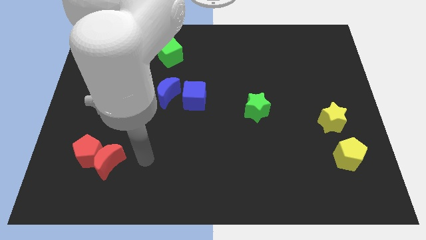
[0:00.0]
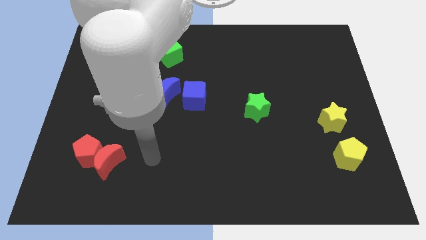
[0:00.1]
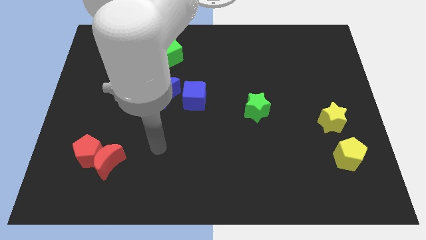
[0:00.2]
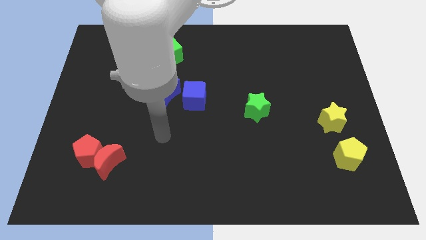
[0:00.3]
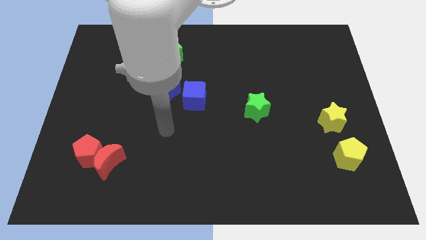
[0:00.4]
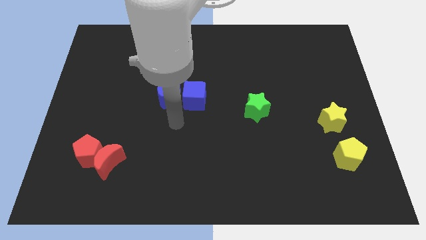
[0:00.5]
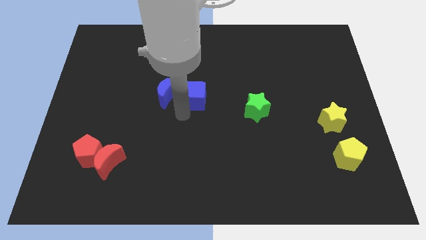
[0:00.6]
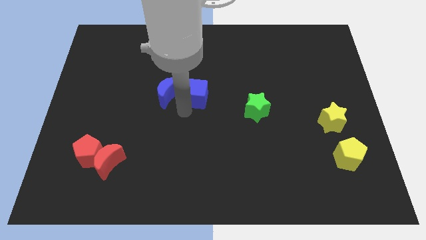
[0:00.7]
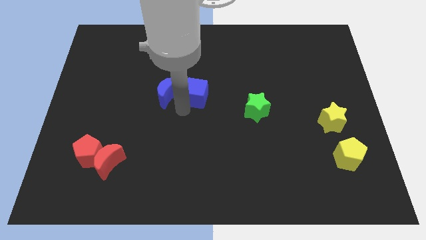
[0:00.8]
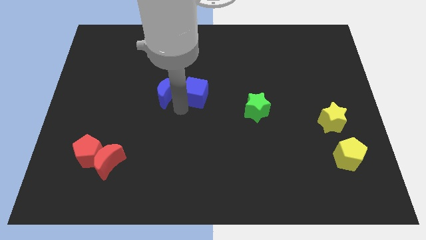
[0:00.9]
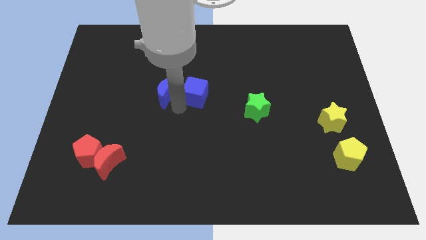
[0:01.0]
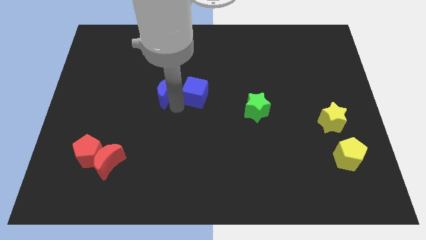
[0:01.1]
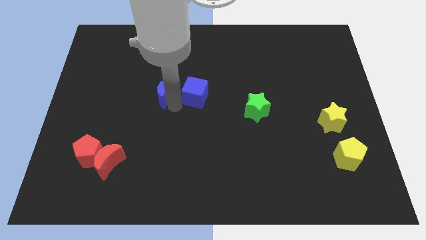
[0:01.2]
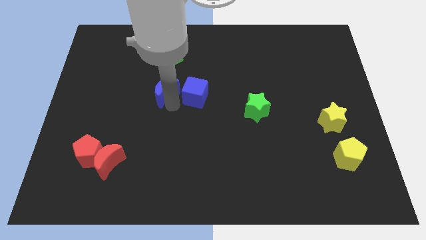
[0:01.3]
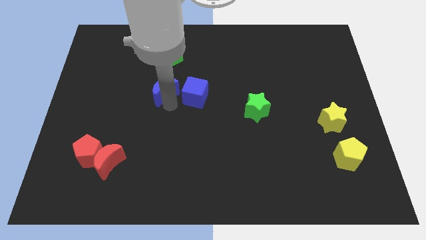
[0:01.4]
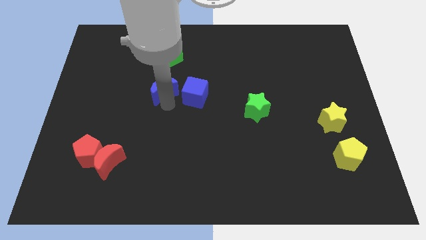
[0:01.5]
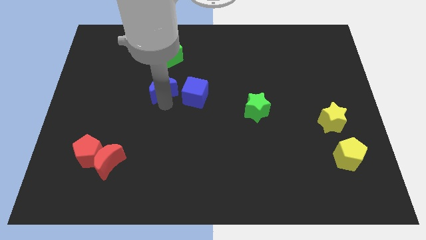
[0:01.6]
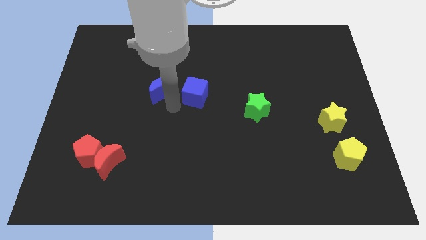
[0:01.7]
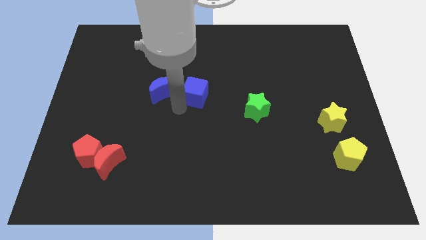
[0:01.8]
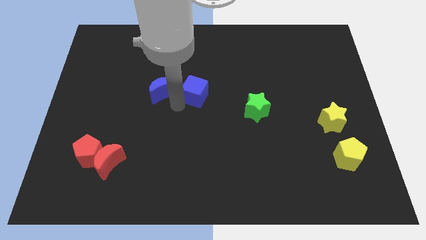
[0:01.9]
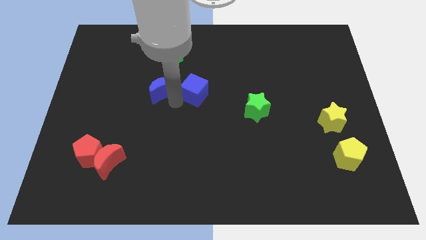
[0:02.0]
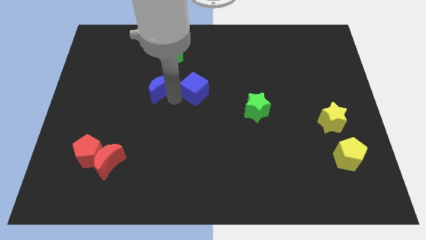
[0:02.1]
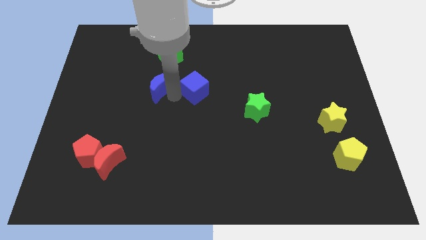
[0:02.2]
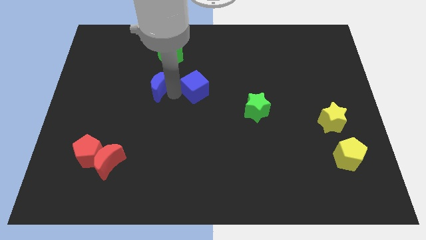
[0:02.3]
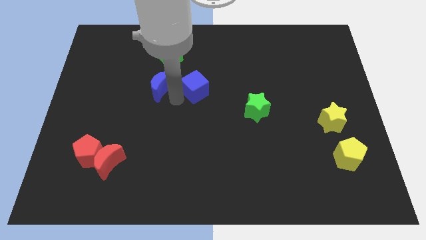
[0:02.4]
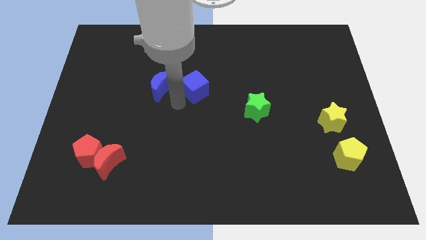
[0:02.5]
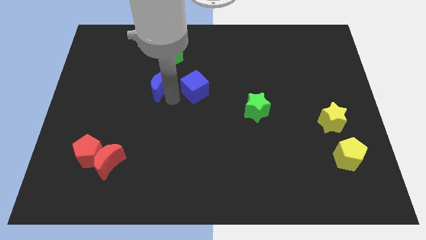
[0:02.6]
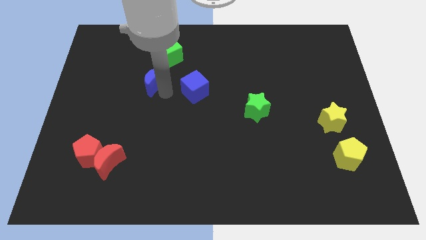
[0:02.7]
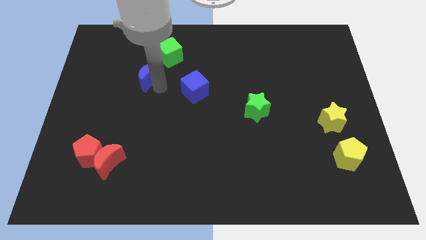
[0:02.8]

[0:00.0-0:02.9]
move the blue moon upwards and then to the left a bit

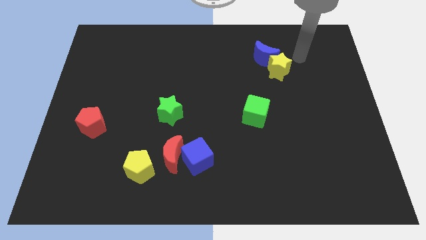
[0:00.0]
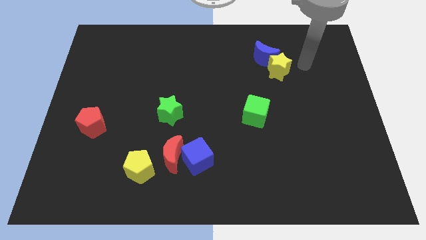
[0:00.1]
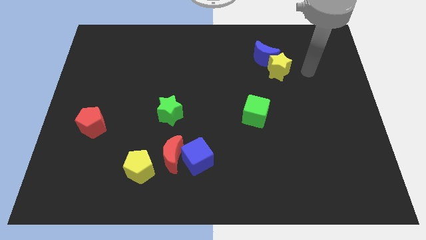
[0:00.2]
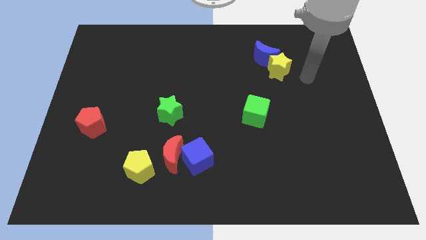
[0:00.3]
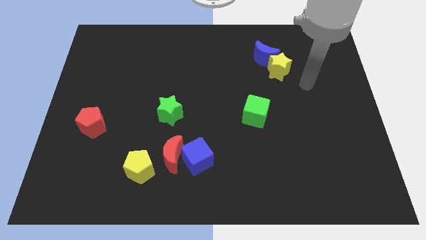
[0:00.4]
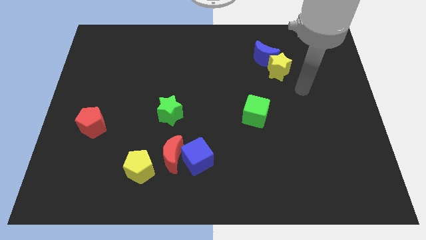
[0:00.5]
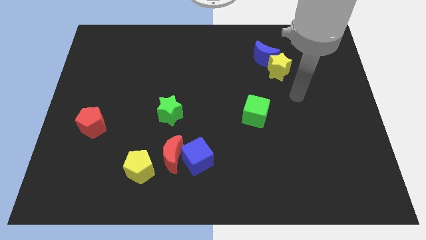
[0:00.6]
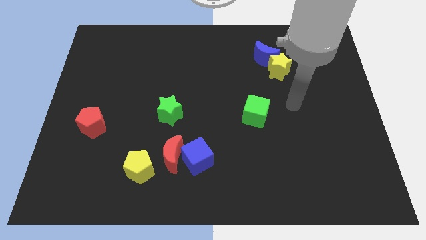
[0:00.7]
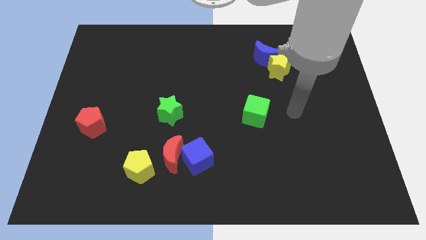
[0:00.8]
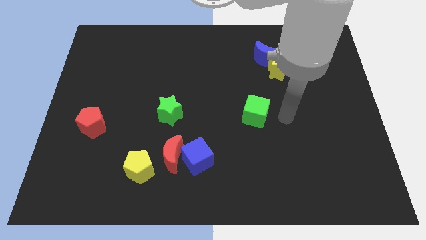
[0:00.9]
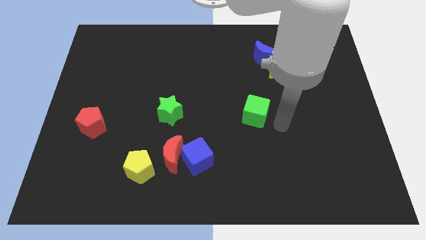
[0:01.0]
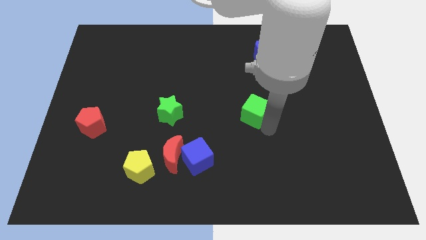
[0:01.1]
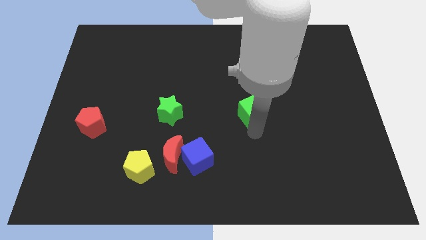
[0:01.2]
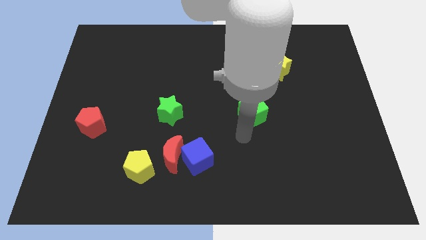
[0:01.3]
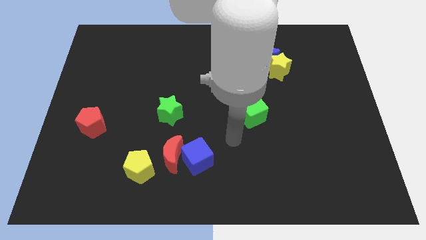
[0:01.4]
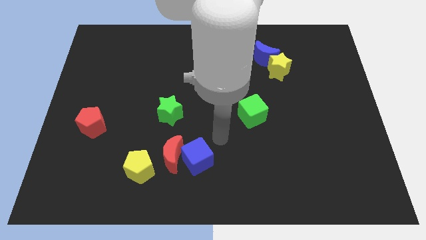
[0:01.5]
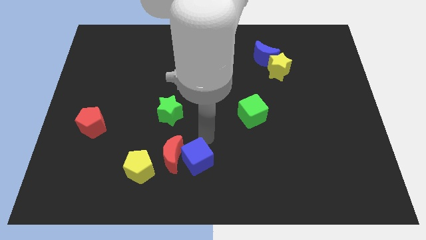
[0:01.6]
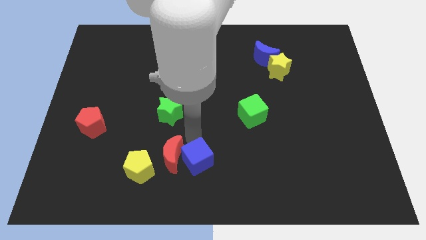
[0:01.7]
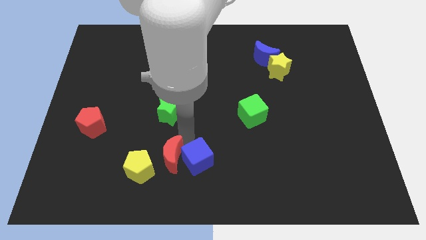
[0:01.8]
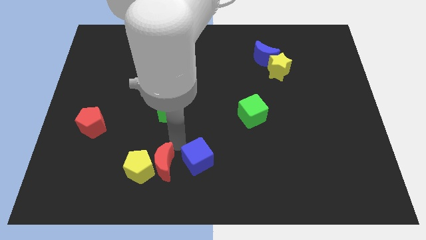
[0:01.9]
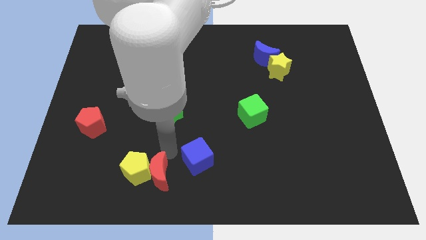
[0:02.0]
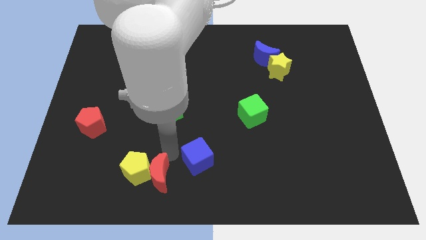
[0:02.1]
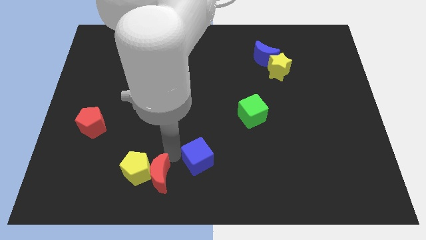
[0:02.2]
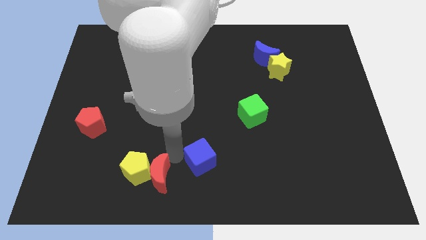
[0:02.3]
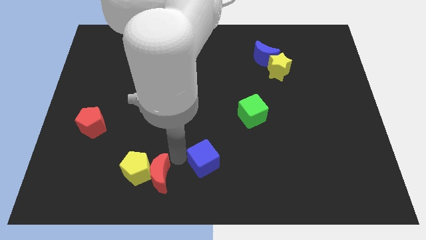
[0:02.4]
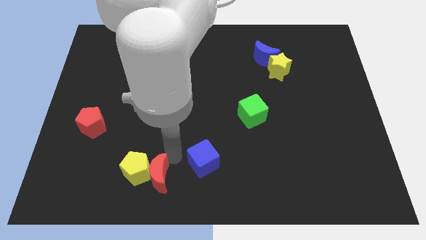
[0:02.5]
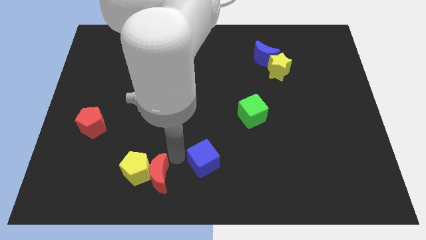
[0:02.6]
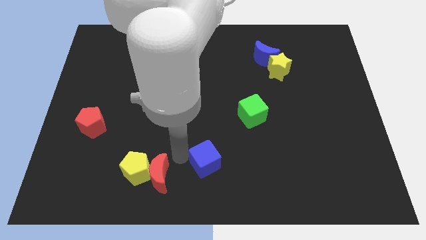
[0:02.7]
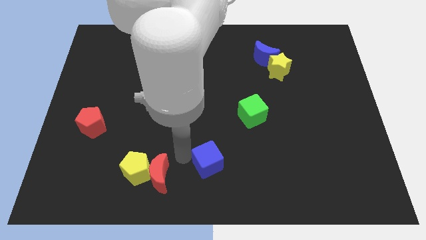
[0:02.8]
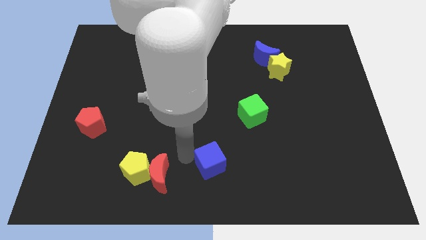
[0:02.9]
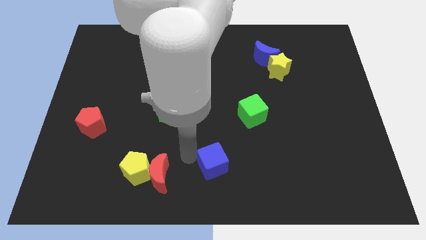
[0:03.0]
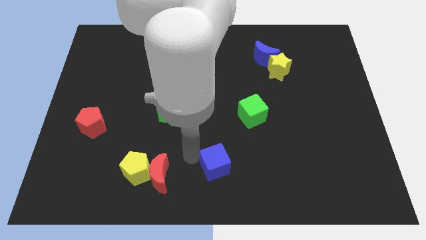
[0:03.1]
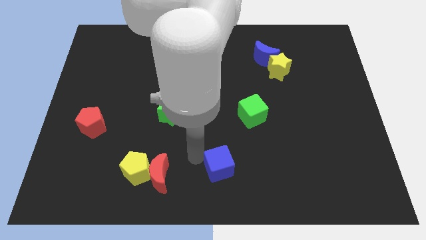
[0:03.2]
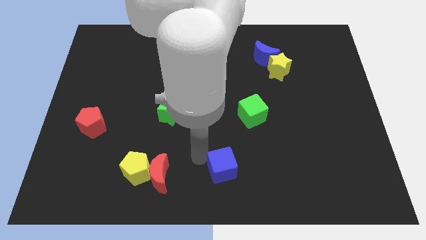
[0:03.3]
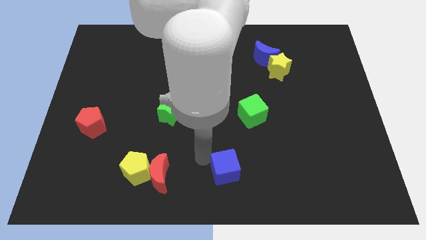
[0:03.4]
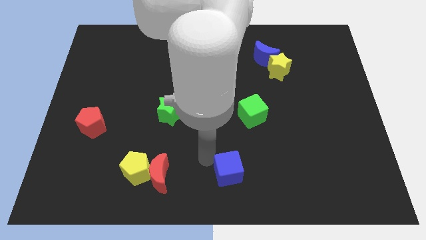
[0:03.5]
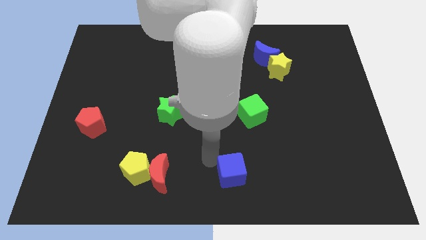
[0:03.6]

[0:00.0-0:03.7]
move the blue cube somewhat right

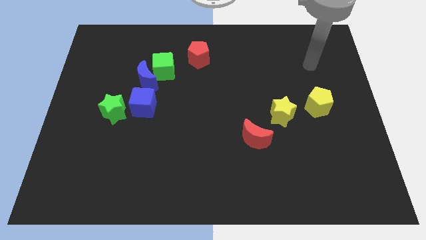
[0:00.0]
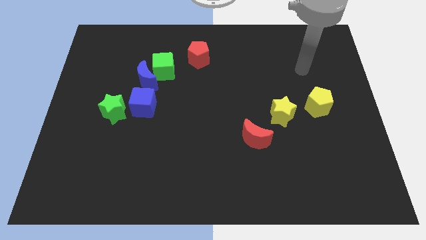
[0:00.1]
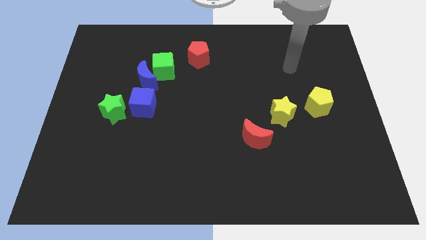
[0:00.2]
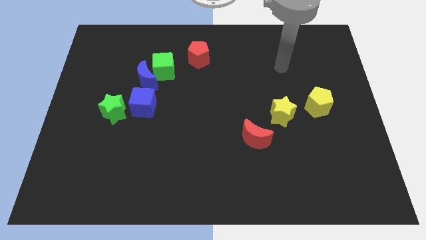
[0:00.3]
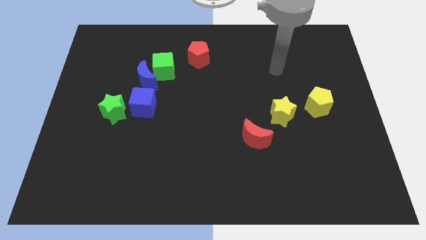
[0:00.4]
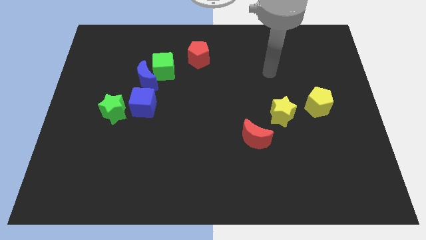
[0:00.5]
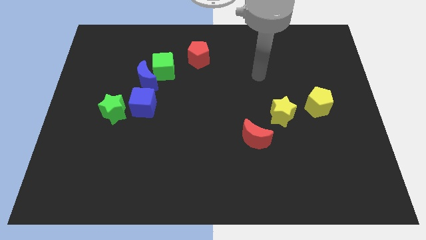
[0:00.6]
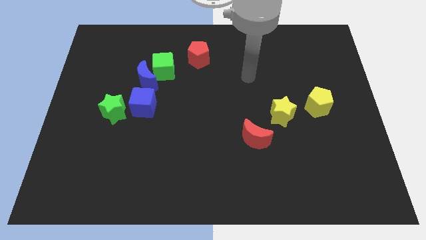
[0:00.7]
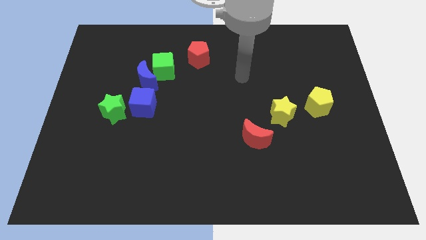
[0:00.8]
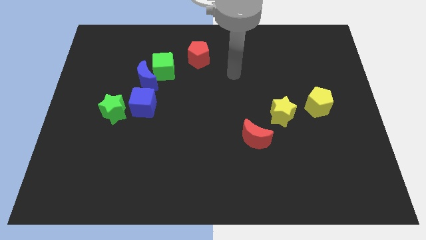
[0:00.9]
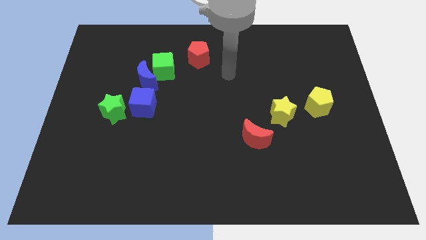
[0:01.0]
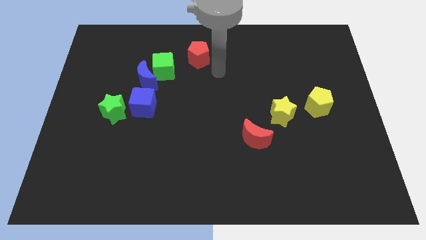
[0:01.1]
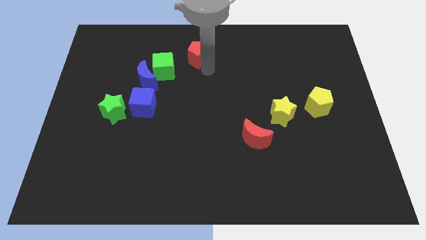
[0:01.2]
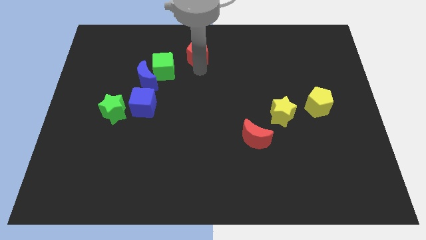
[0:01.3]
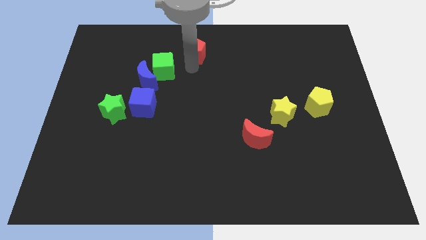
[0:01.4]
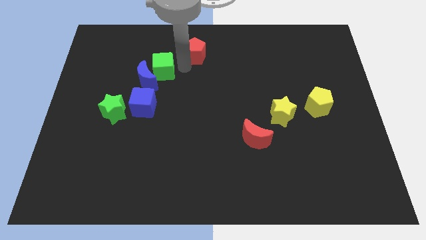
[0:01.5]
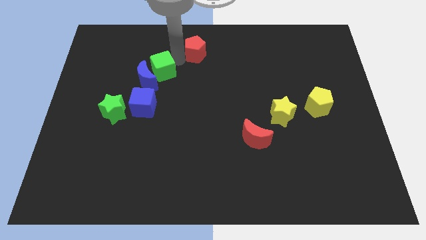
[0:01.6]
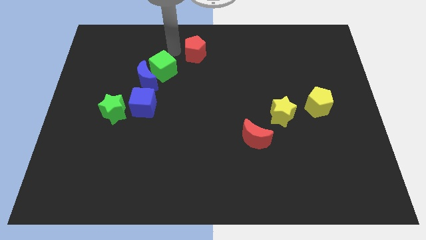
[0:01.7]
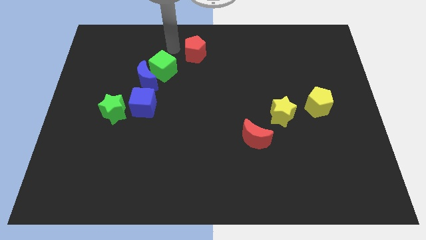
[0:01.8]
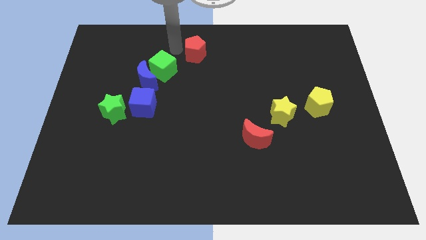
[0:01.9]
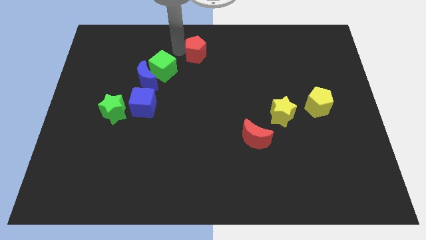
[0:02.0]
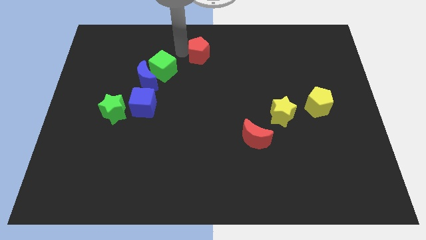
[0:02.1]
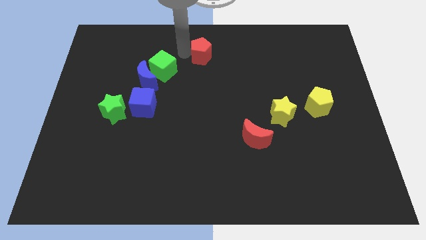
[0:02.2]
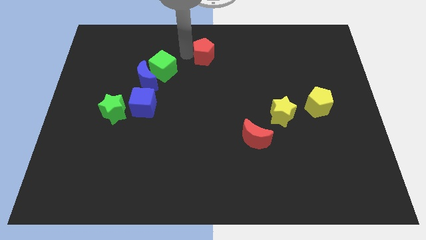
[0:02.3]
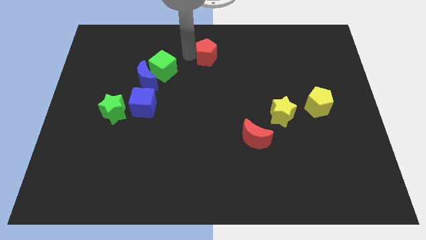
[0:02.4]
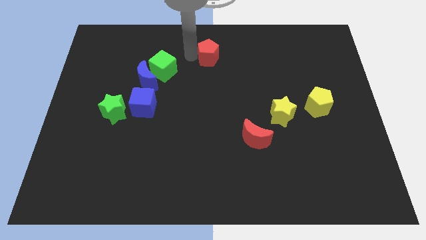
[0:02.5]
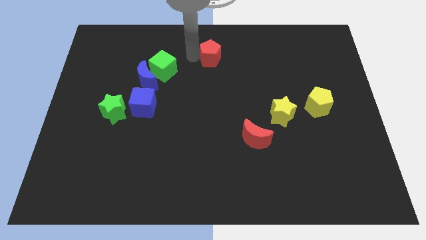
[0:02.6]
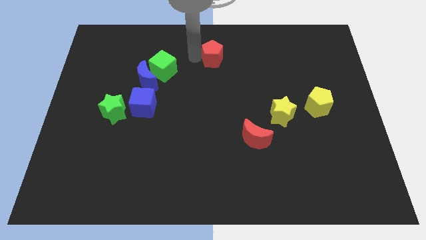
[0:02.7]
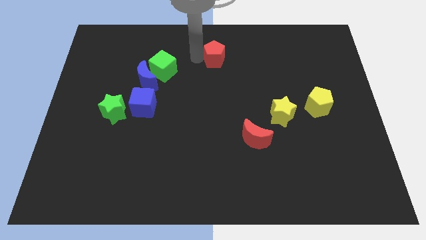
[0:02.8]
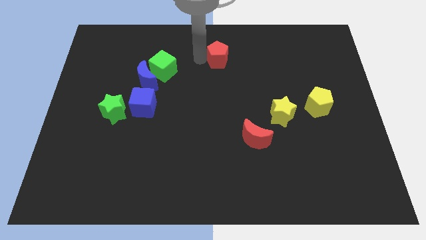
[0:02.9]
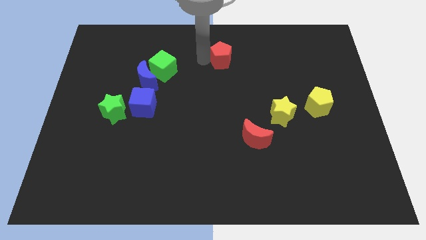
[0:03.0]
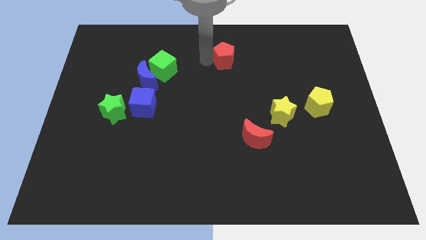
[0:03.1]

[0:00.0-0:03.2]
slightly move the red pentagon to the right
